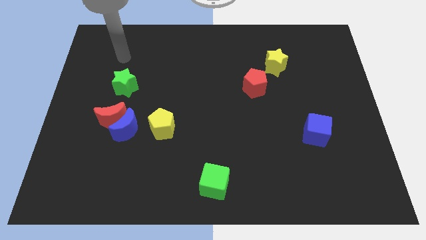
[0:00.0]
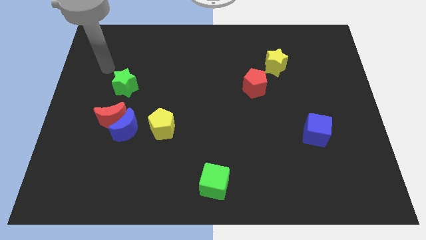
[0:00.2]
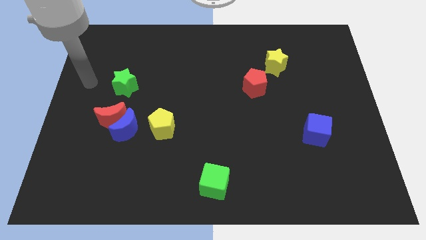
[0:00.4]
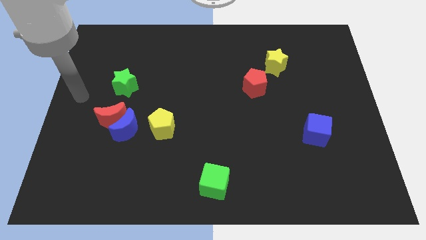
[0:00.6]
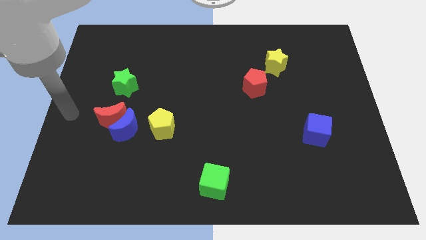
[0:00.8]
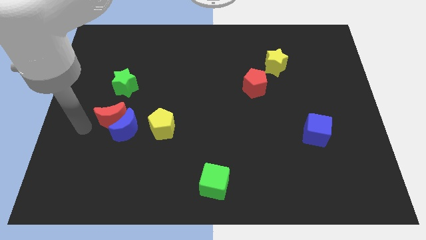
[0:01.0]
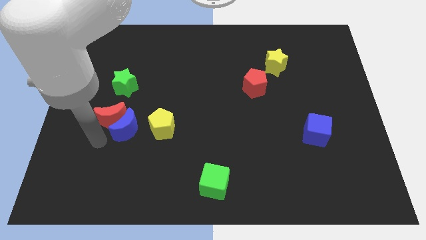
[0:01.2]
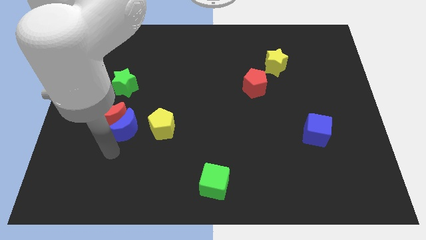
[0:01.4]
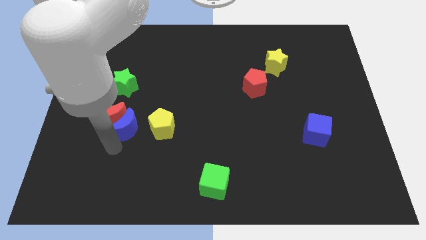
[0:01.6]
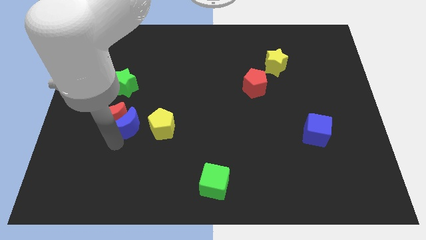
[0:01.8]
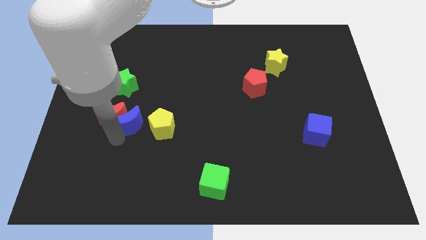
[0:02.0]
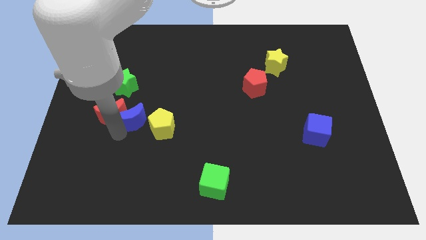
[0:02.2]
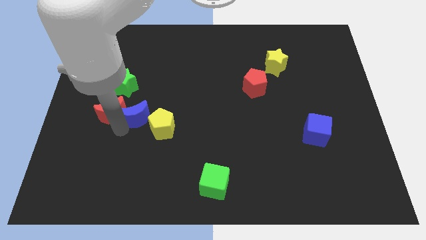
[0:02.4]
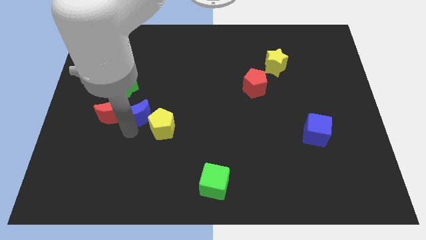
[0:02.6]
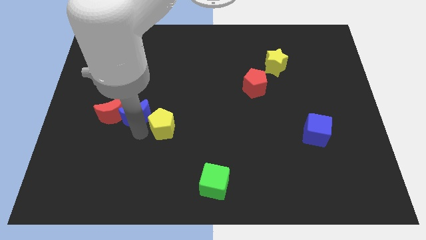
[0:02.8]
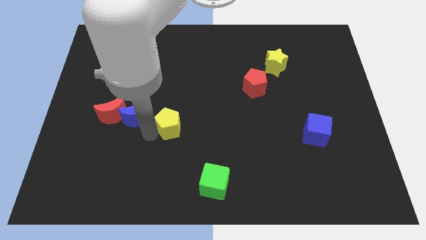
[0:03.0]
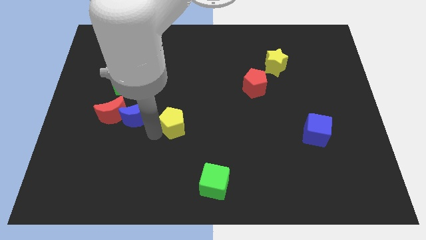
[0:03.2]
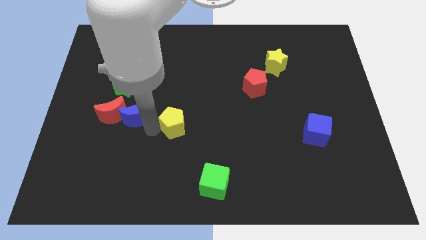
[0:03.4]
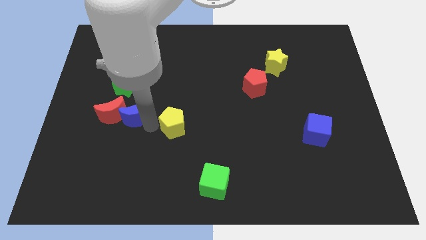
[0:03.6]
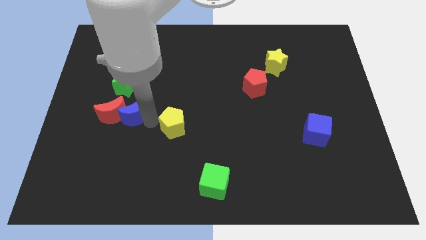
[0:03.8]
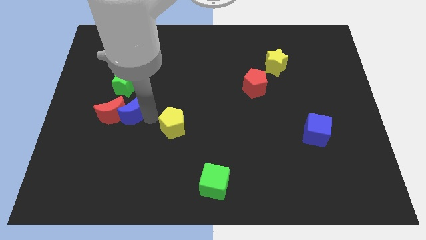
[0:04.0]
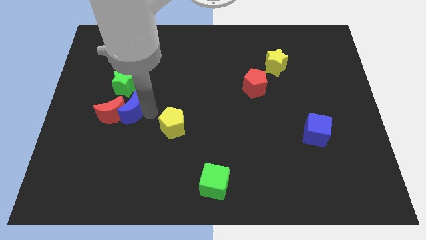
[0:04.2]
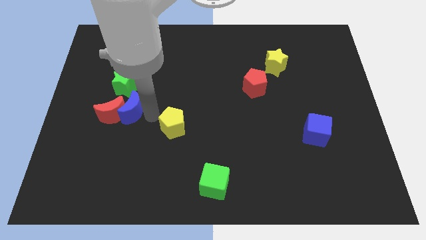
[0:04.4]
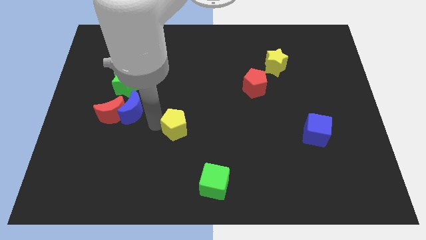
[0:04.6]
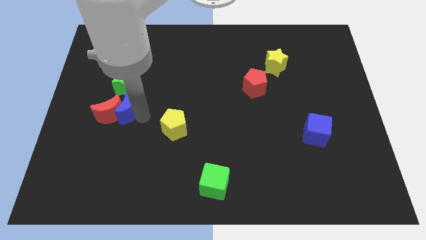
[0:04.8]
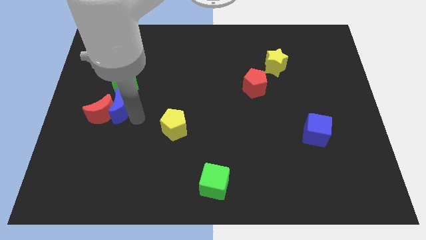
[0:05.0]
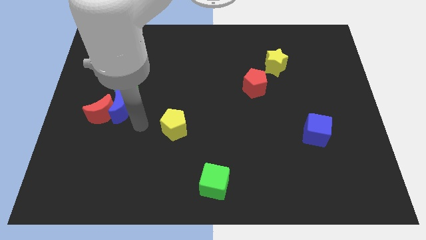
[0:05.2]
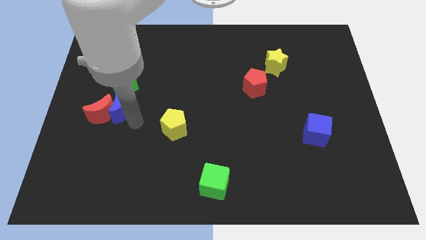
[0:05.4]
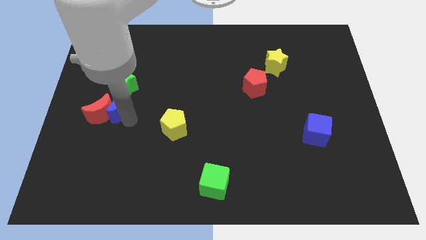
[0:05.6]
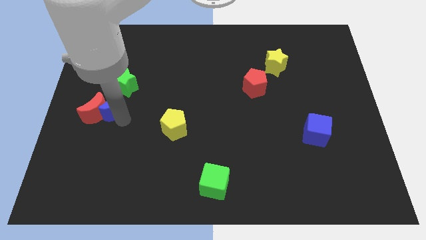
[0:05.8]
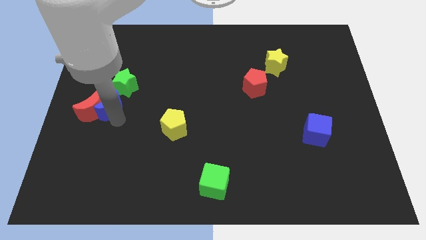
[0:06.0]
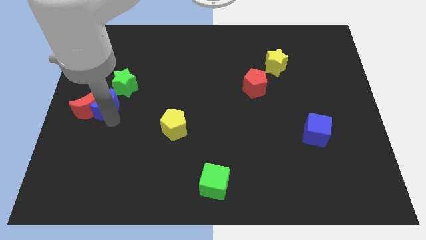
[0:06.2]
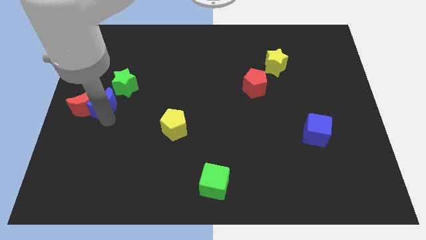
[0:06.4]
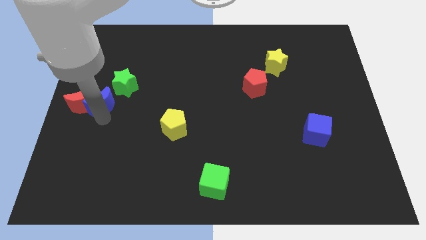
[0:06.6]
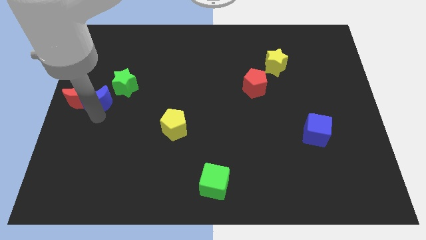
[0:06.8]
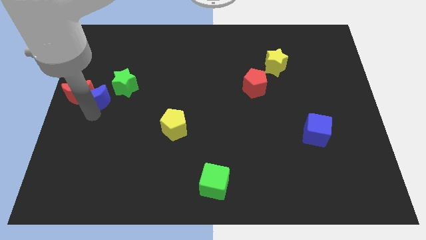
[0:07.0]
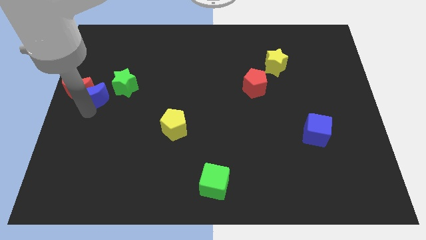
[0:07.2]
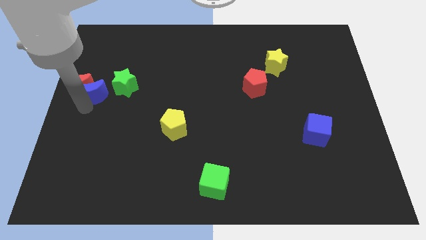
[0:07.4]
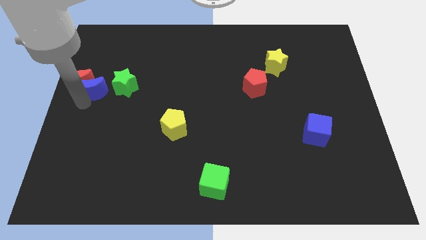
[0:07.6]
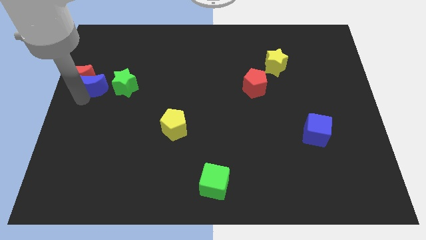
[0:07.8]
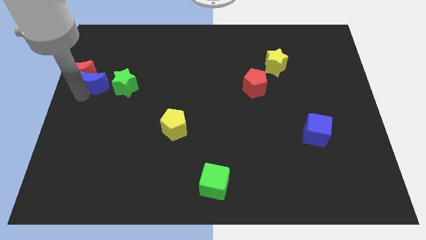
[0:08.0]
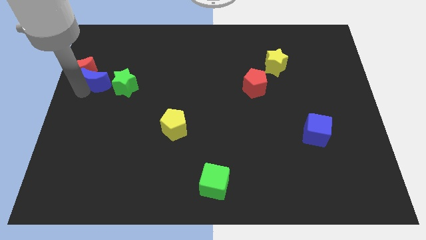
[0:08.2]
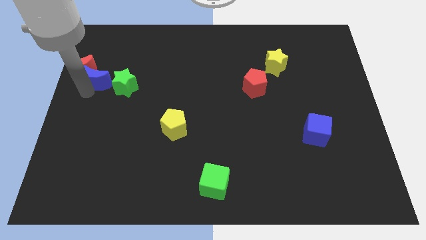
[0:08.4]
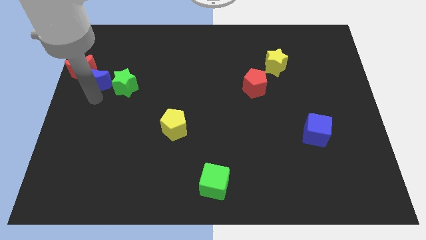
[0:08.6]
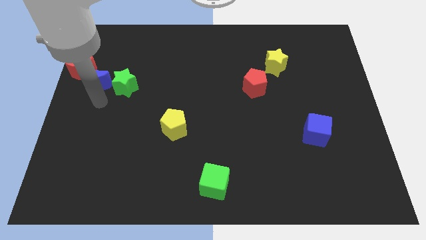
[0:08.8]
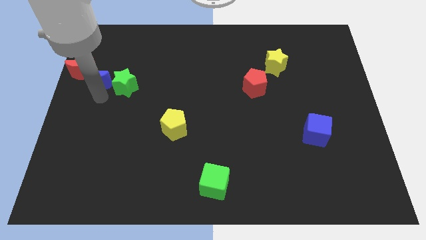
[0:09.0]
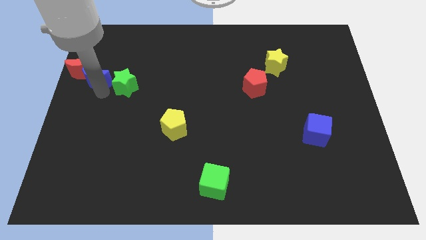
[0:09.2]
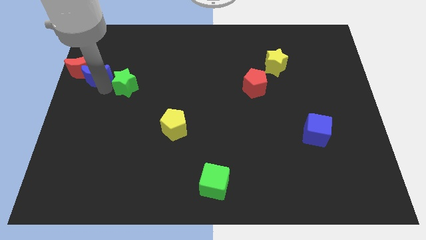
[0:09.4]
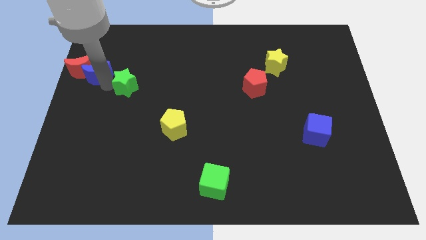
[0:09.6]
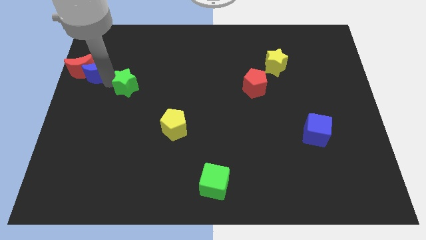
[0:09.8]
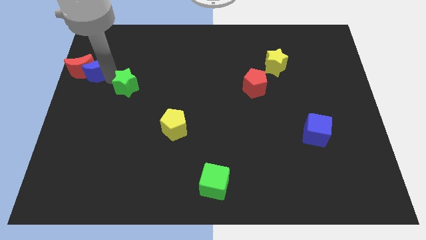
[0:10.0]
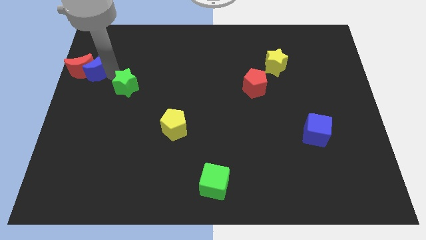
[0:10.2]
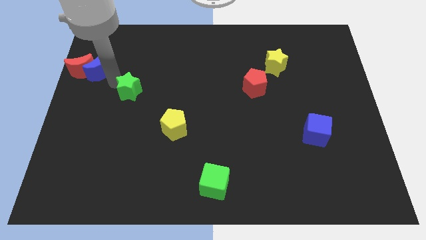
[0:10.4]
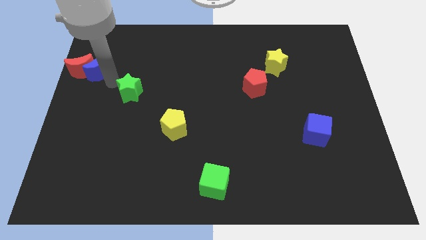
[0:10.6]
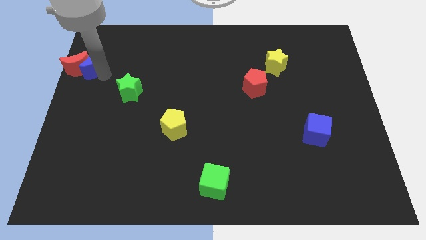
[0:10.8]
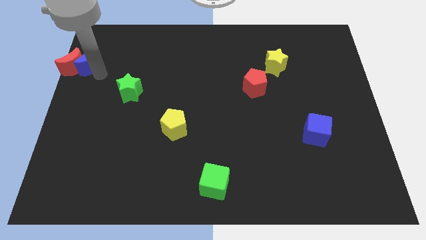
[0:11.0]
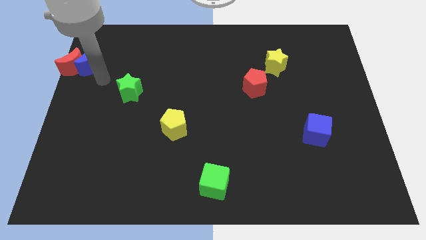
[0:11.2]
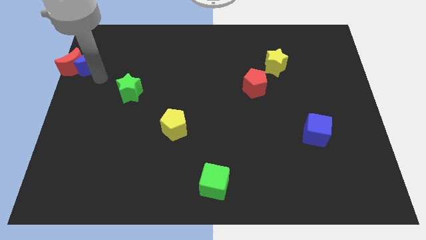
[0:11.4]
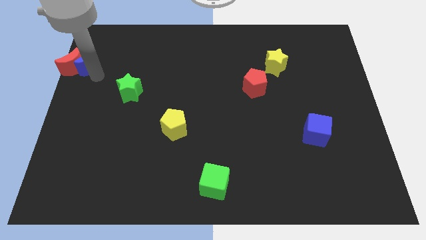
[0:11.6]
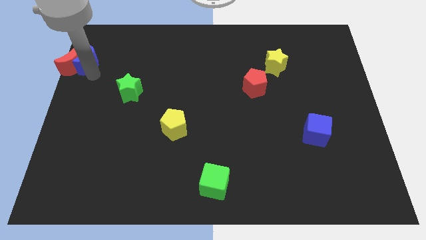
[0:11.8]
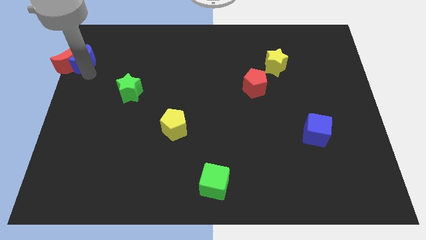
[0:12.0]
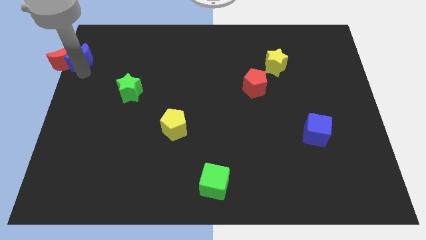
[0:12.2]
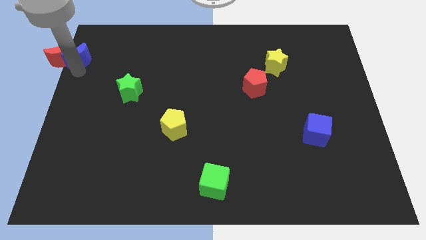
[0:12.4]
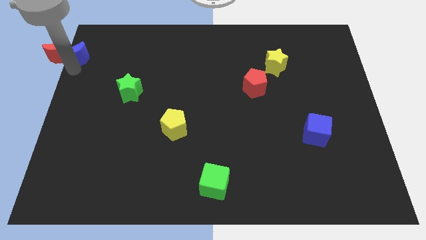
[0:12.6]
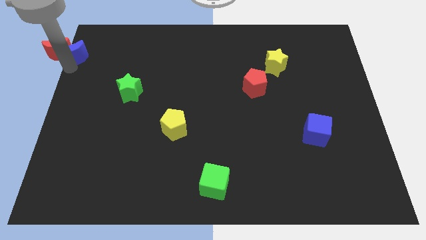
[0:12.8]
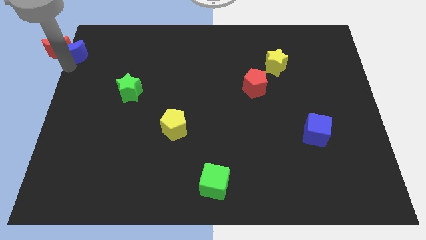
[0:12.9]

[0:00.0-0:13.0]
put the blue moon to the top left
